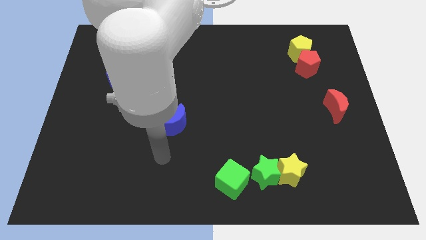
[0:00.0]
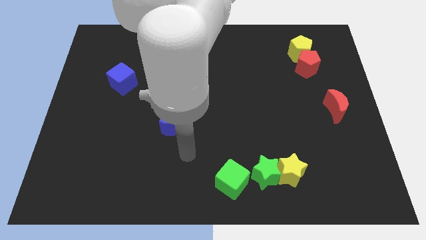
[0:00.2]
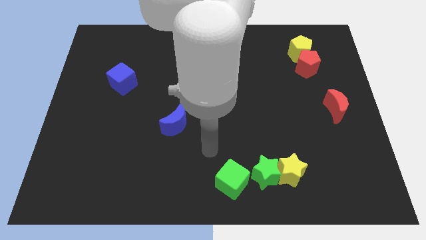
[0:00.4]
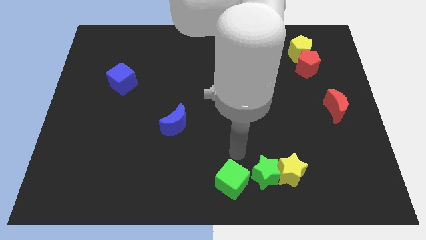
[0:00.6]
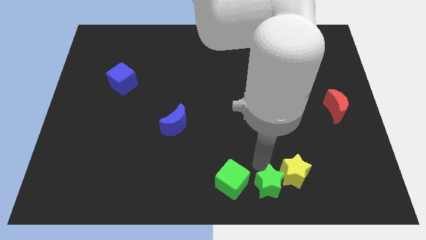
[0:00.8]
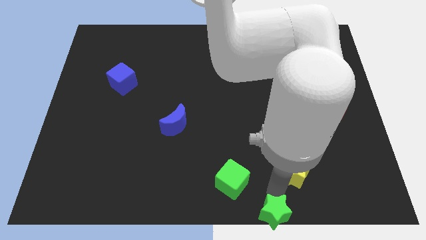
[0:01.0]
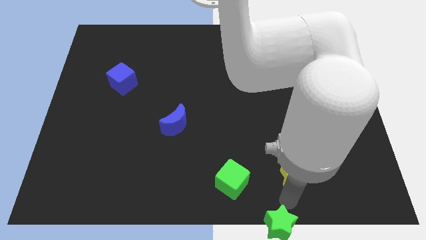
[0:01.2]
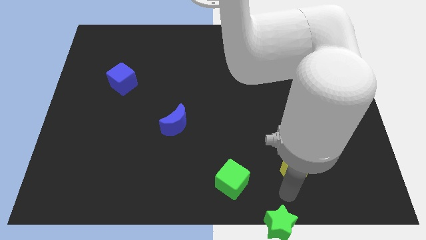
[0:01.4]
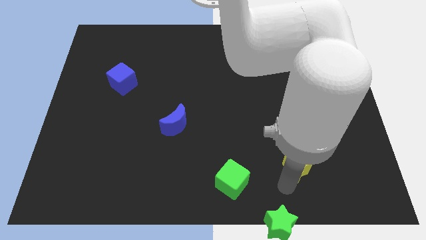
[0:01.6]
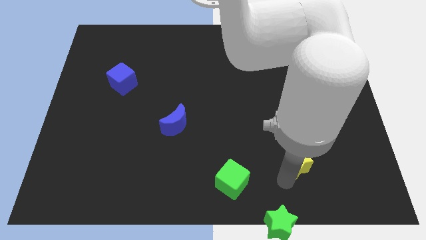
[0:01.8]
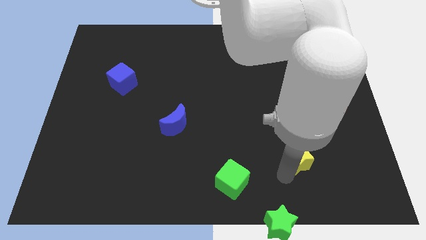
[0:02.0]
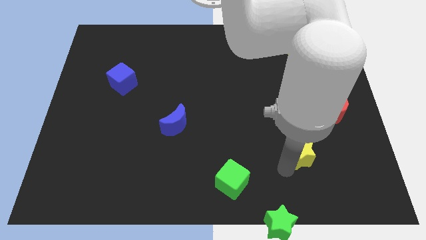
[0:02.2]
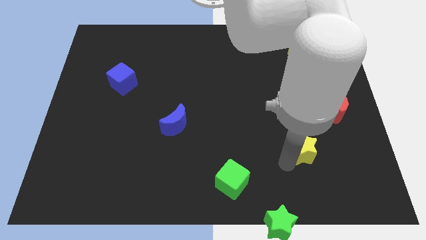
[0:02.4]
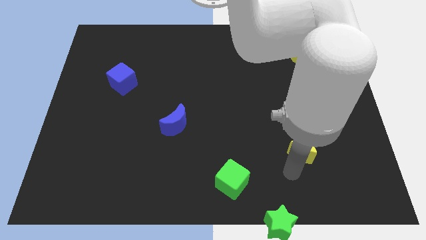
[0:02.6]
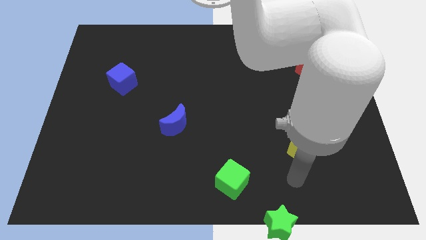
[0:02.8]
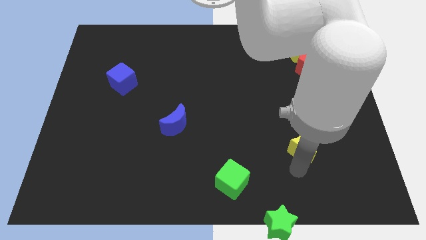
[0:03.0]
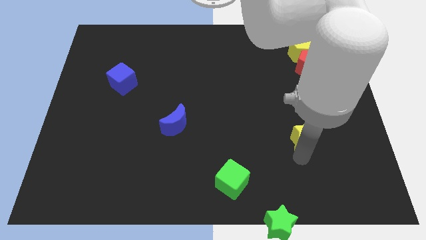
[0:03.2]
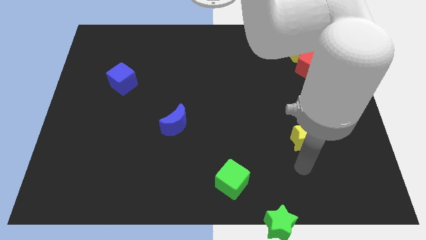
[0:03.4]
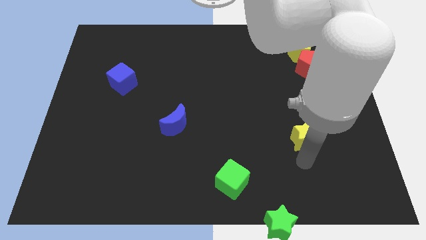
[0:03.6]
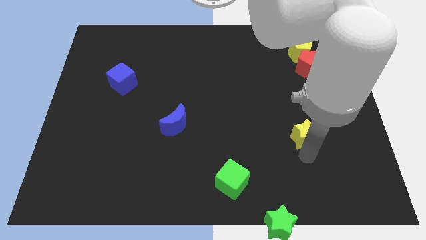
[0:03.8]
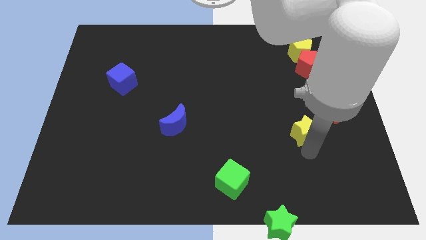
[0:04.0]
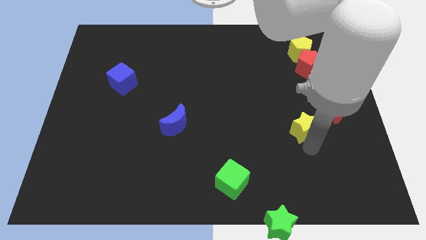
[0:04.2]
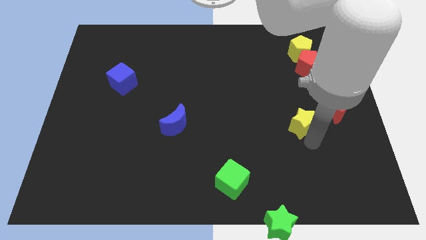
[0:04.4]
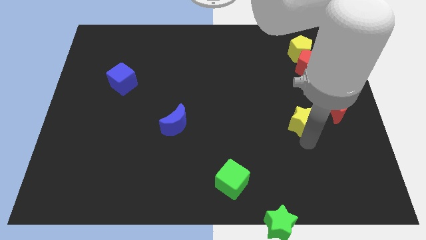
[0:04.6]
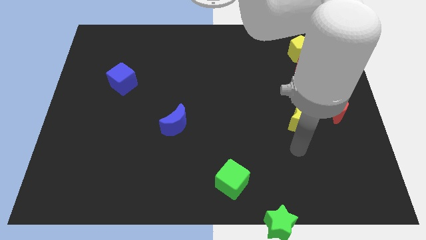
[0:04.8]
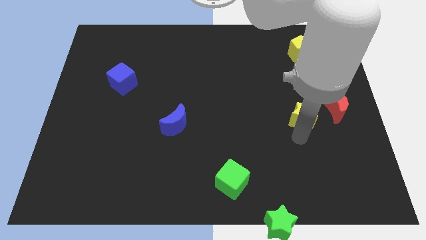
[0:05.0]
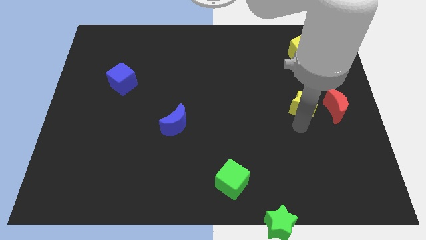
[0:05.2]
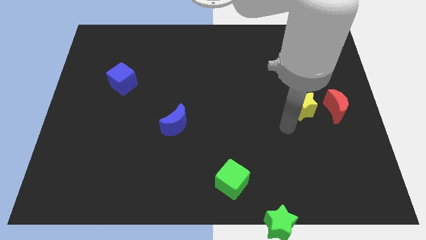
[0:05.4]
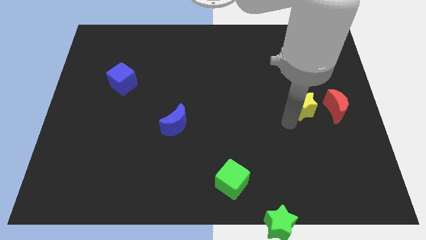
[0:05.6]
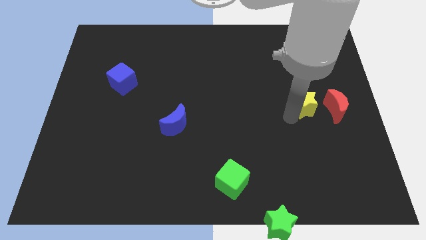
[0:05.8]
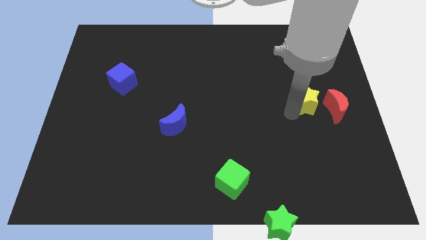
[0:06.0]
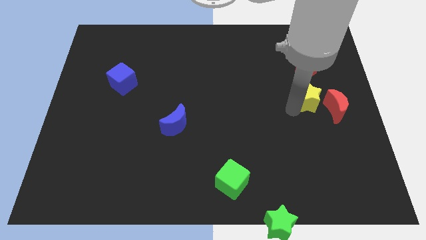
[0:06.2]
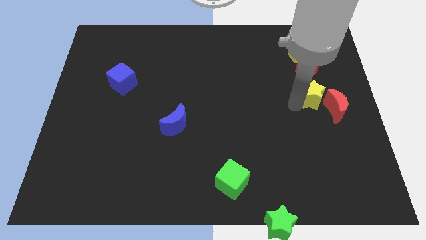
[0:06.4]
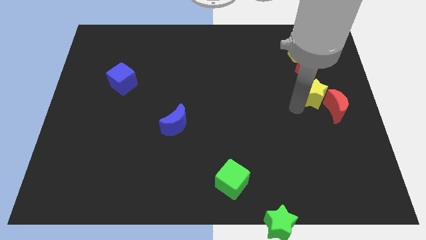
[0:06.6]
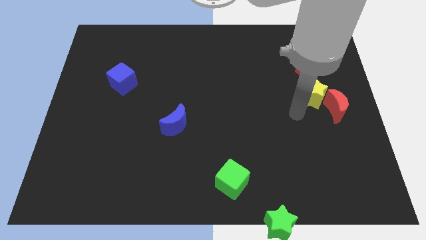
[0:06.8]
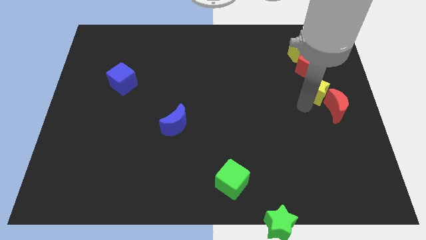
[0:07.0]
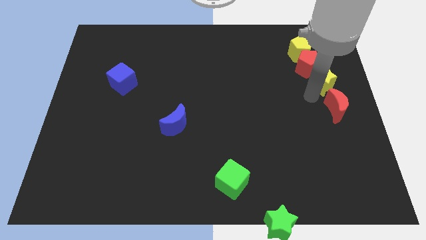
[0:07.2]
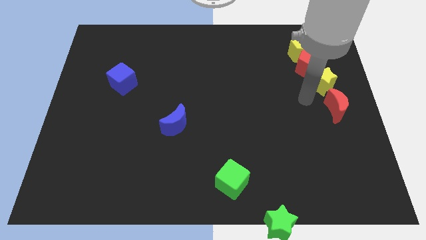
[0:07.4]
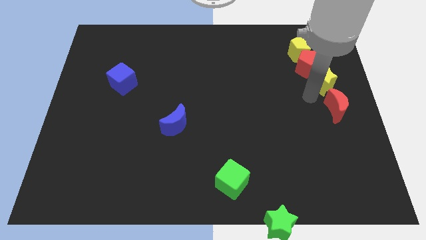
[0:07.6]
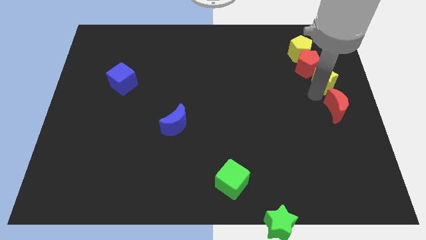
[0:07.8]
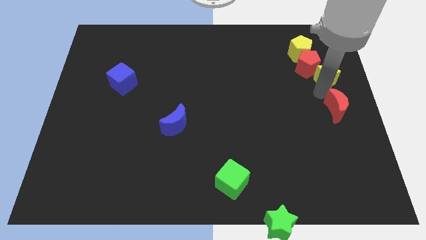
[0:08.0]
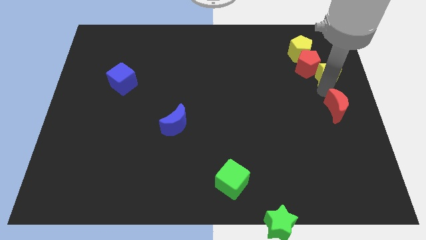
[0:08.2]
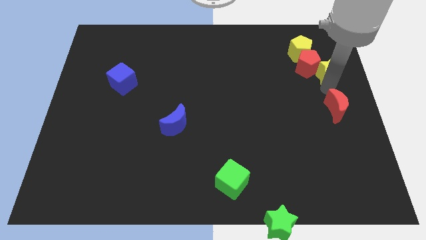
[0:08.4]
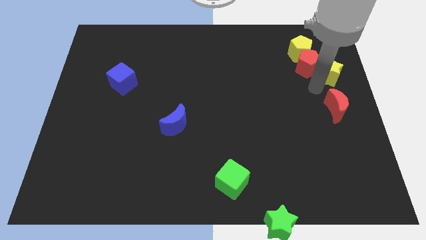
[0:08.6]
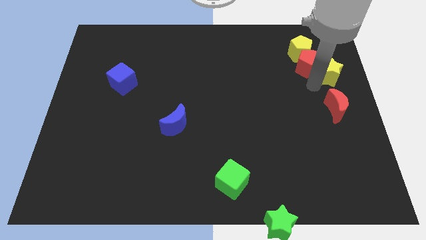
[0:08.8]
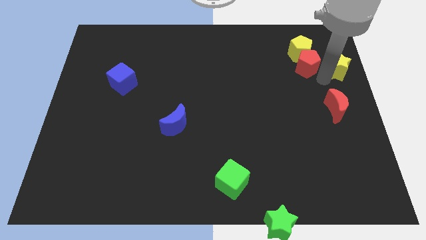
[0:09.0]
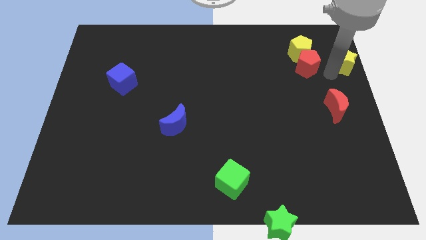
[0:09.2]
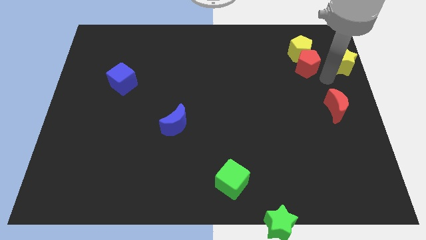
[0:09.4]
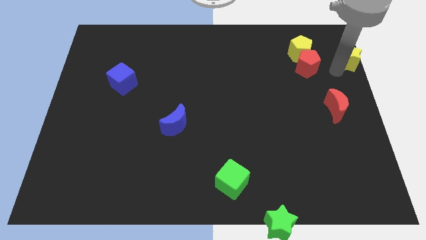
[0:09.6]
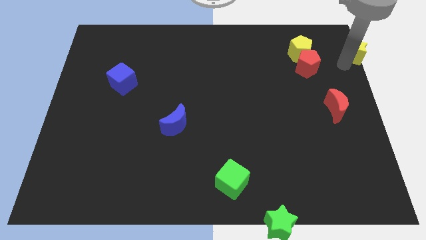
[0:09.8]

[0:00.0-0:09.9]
put the yellow star to the top right corner

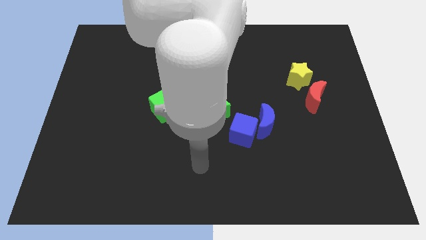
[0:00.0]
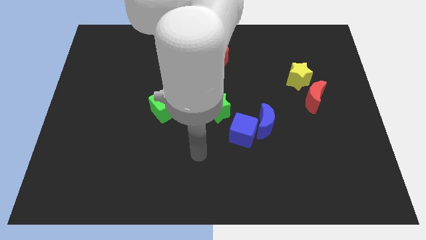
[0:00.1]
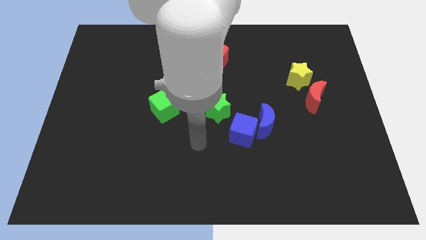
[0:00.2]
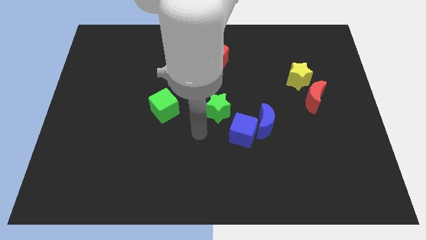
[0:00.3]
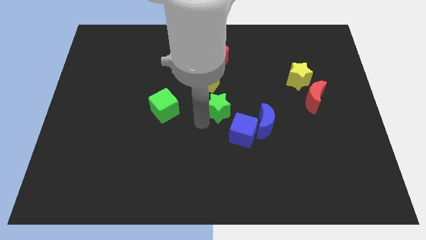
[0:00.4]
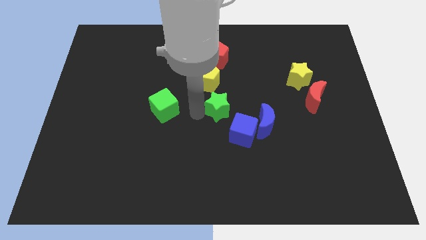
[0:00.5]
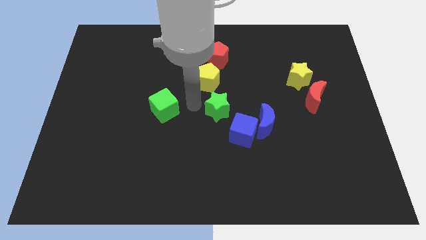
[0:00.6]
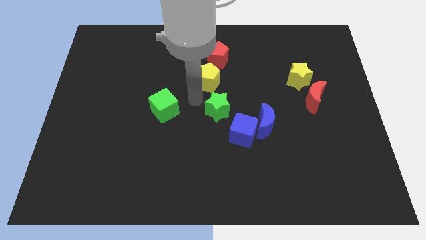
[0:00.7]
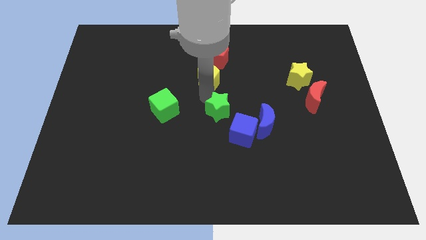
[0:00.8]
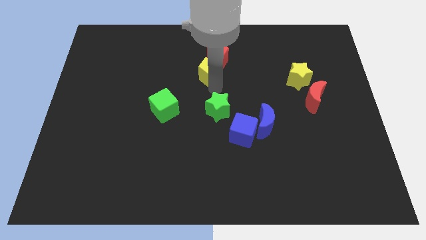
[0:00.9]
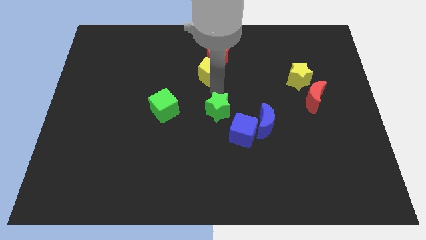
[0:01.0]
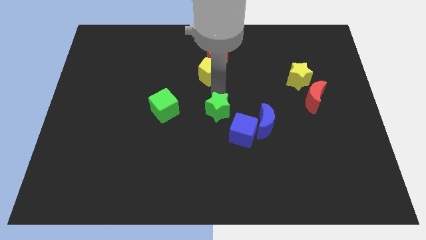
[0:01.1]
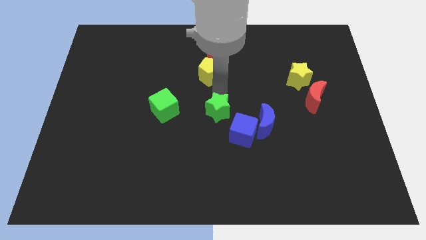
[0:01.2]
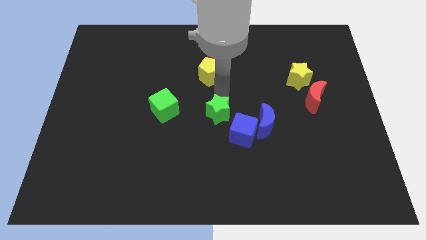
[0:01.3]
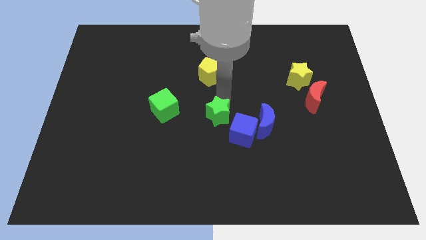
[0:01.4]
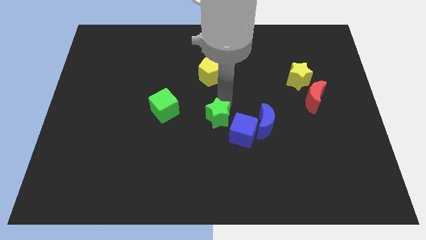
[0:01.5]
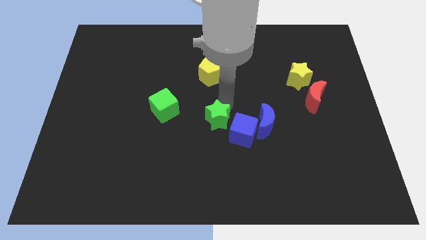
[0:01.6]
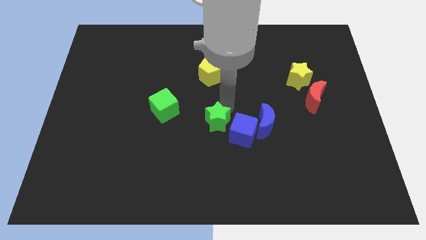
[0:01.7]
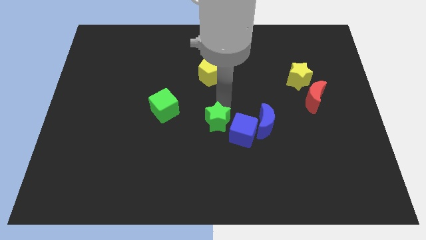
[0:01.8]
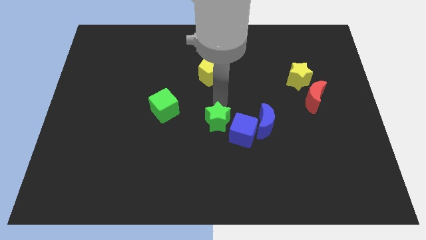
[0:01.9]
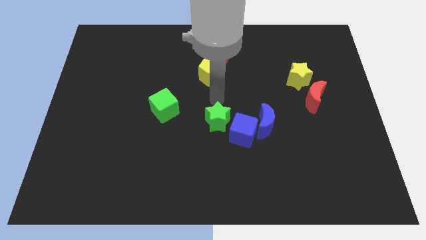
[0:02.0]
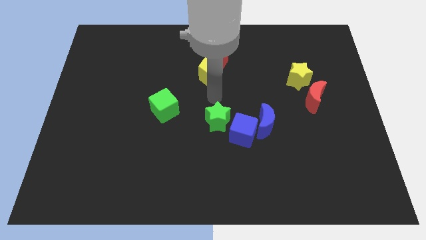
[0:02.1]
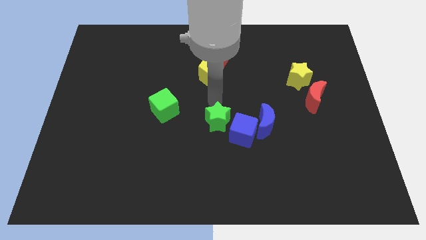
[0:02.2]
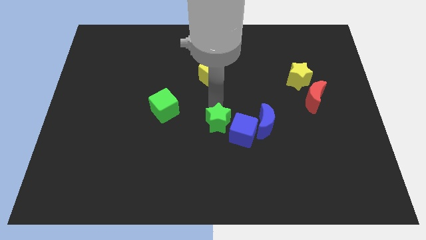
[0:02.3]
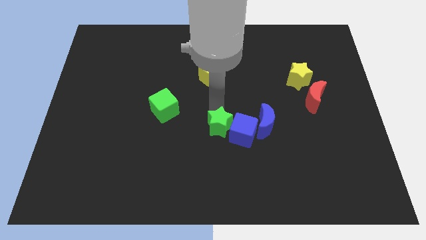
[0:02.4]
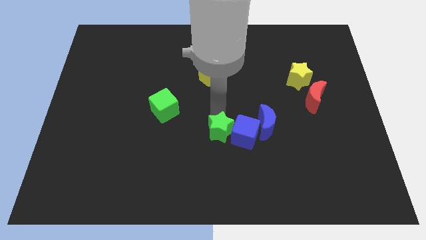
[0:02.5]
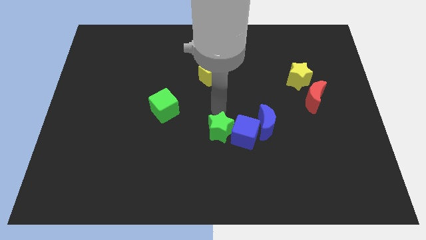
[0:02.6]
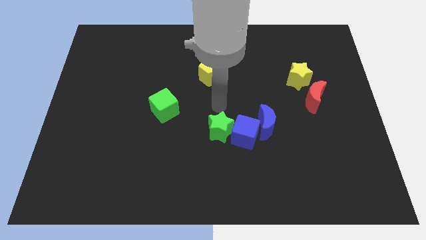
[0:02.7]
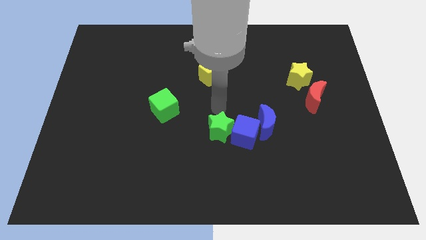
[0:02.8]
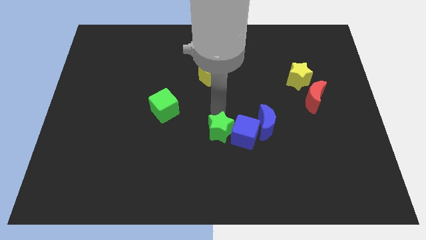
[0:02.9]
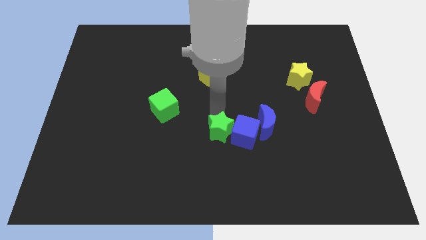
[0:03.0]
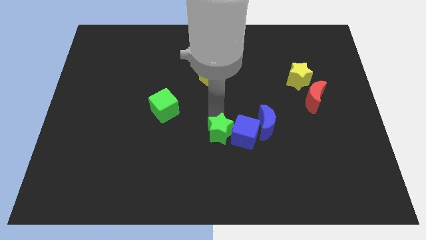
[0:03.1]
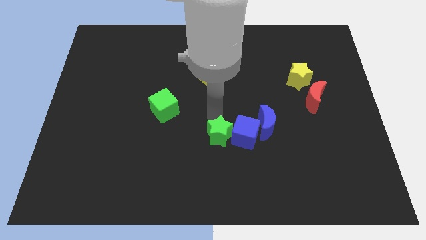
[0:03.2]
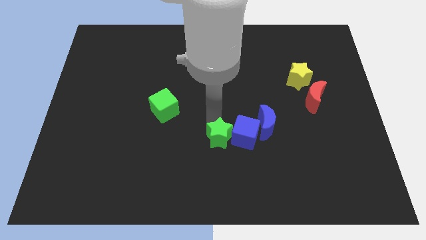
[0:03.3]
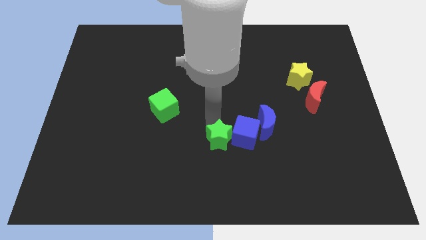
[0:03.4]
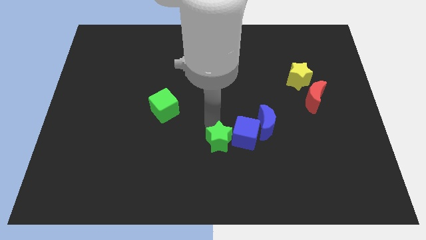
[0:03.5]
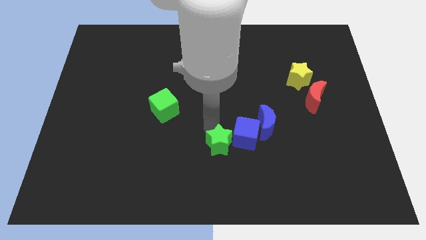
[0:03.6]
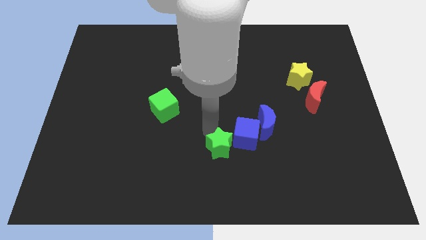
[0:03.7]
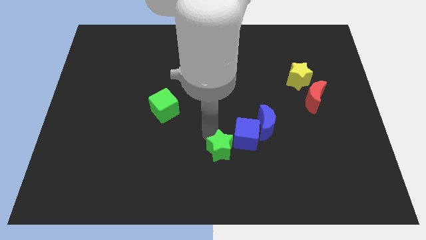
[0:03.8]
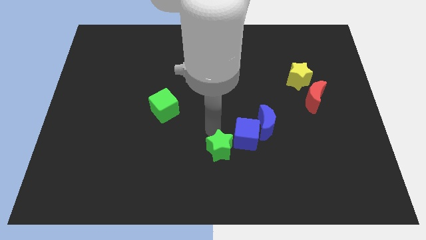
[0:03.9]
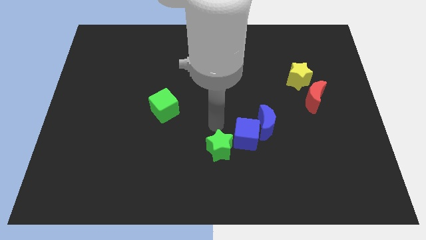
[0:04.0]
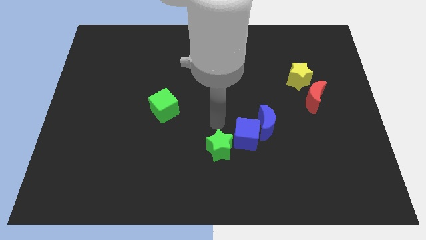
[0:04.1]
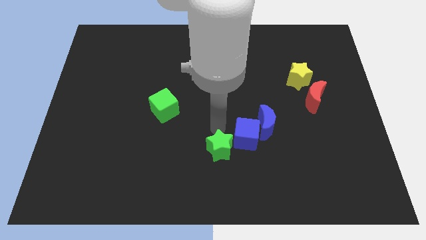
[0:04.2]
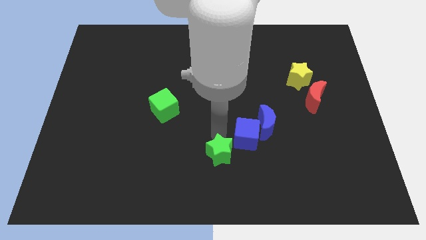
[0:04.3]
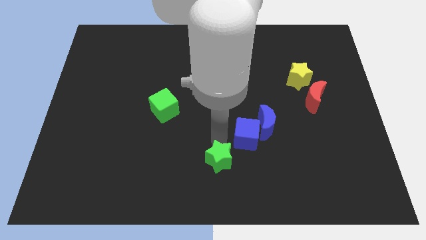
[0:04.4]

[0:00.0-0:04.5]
move the green star to the bottom side
